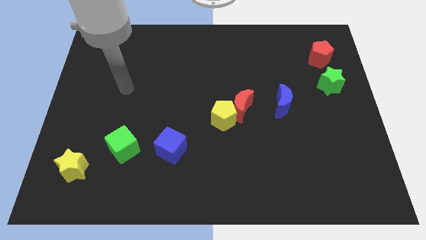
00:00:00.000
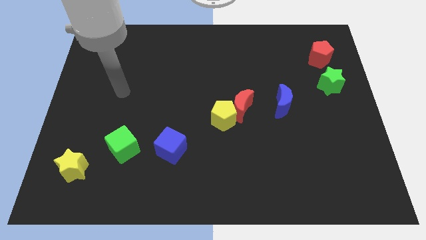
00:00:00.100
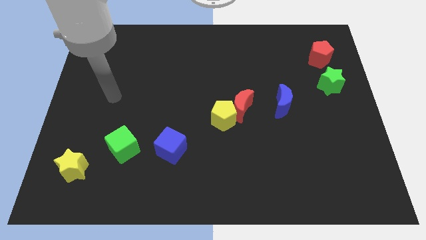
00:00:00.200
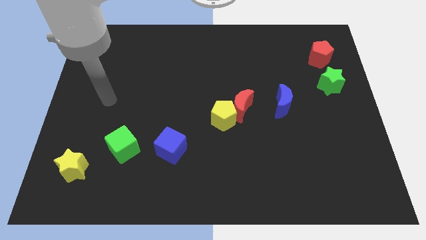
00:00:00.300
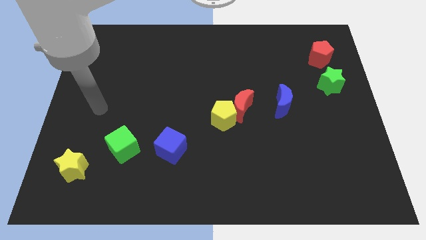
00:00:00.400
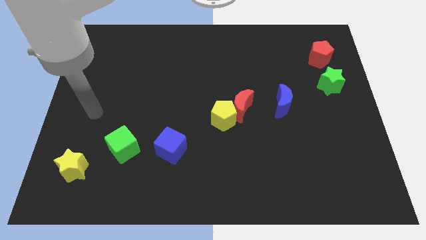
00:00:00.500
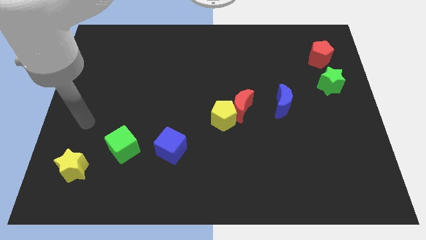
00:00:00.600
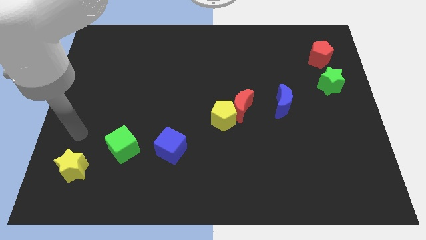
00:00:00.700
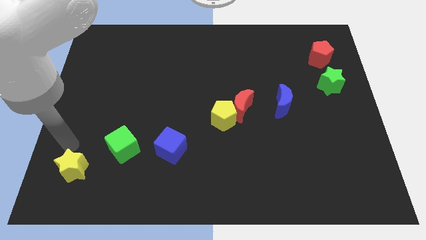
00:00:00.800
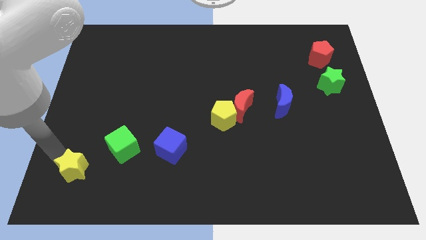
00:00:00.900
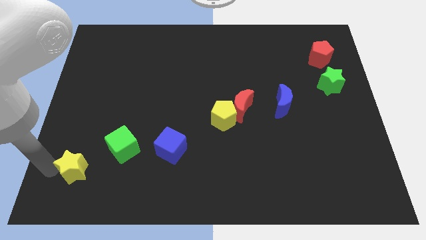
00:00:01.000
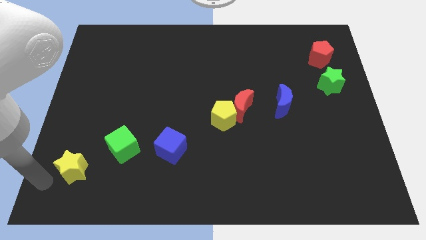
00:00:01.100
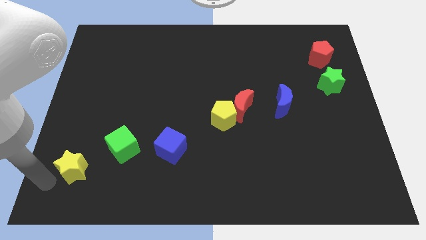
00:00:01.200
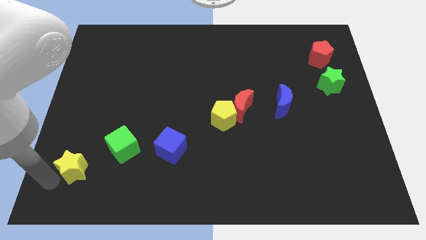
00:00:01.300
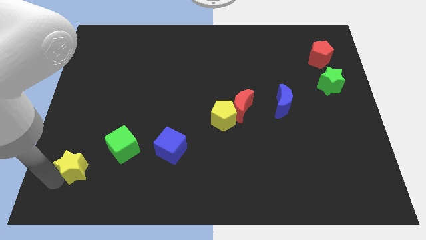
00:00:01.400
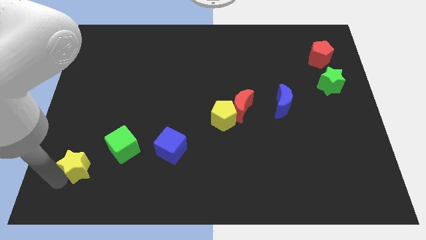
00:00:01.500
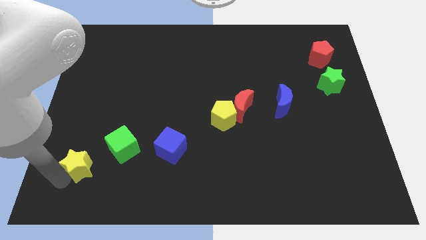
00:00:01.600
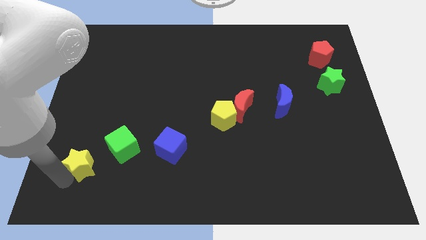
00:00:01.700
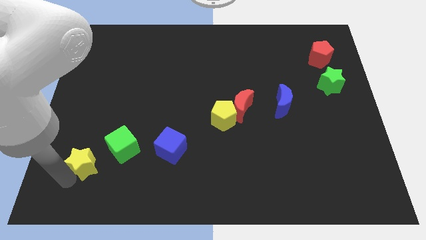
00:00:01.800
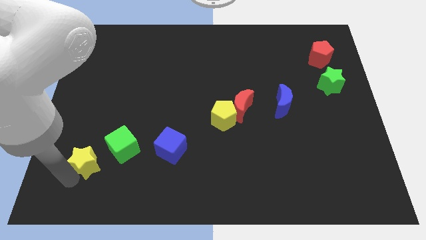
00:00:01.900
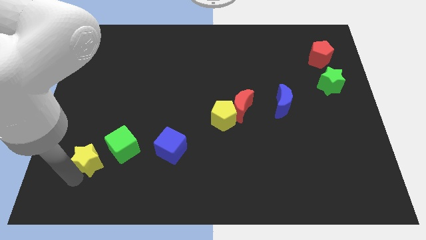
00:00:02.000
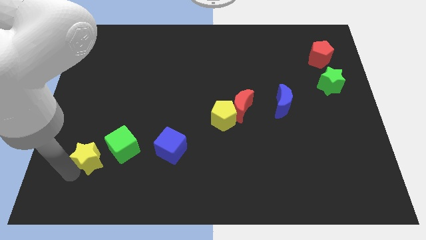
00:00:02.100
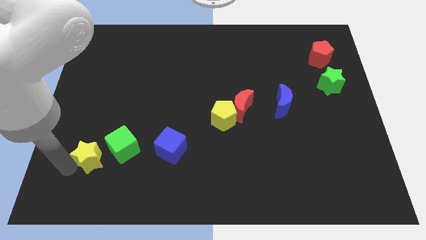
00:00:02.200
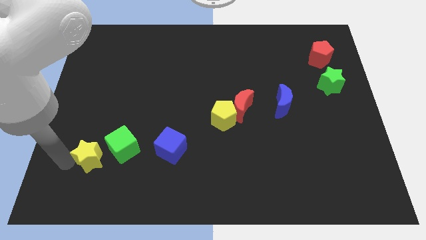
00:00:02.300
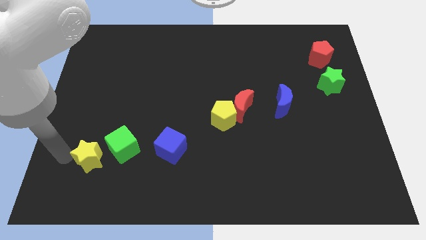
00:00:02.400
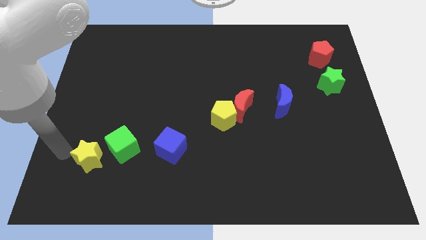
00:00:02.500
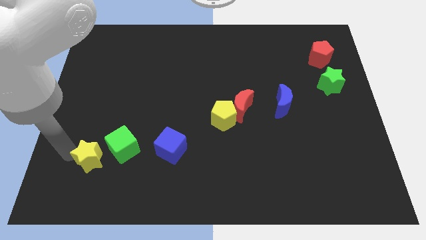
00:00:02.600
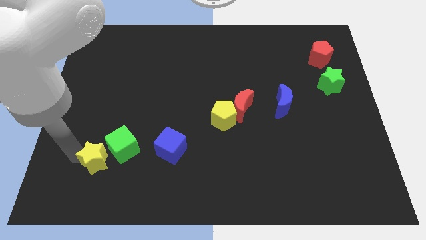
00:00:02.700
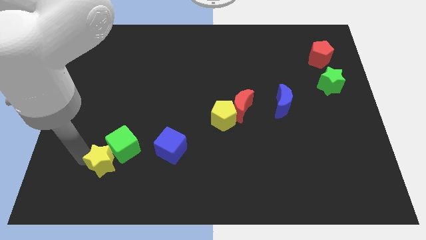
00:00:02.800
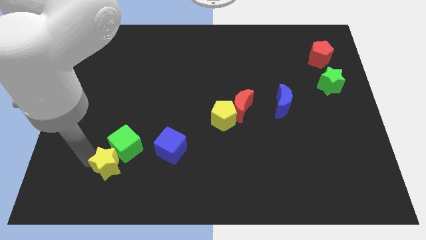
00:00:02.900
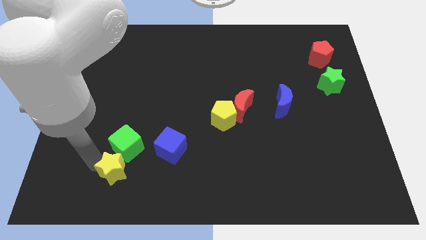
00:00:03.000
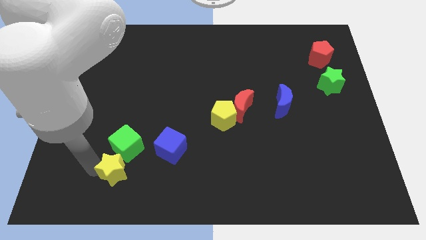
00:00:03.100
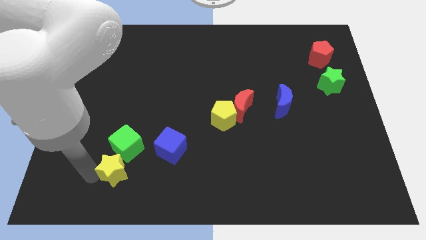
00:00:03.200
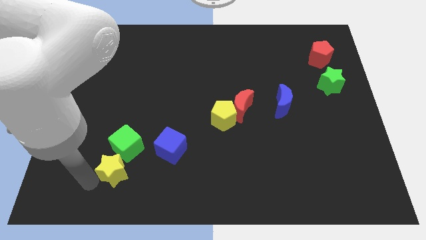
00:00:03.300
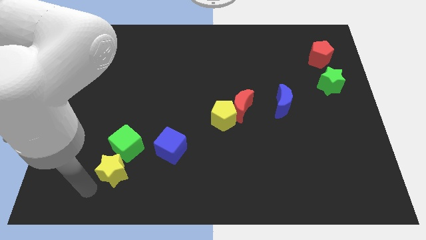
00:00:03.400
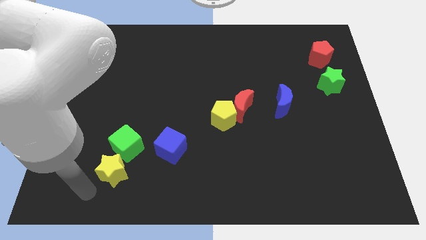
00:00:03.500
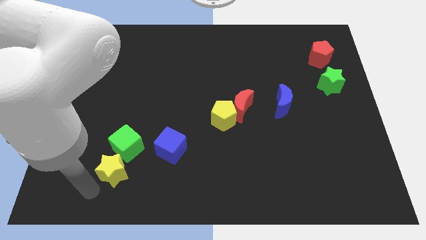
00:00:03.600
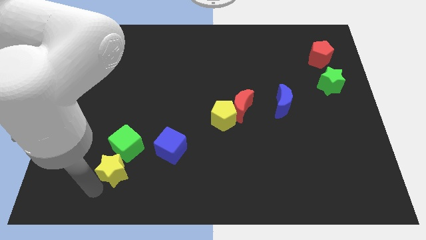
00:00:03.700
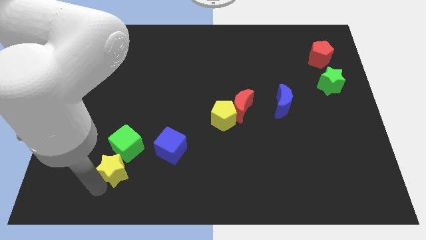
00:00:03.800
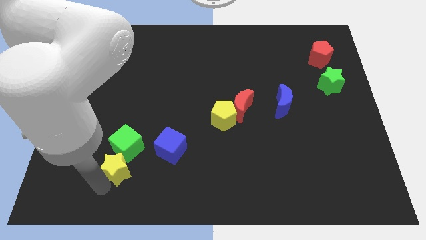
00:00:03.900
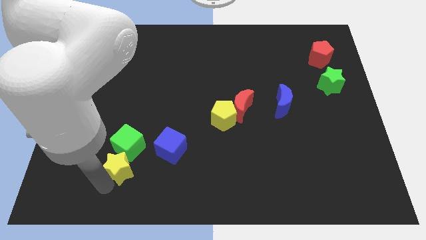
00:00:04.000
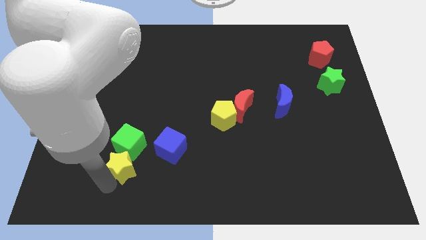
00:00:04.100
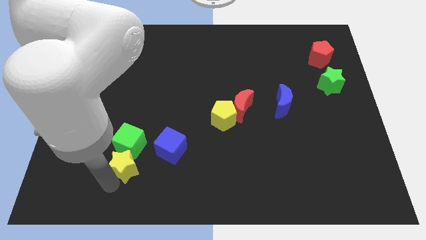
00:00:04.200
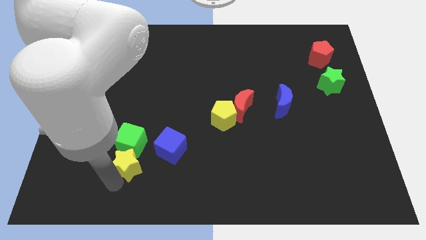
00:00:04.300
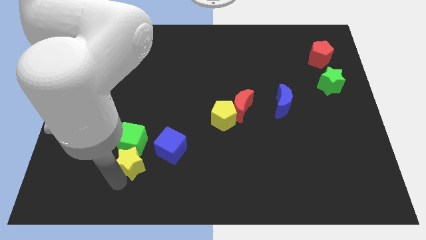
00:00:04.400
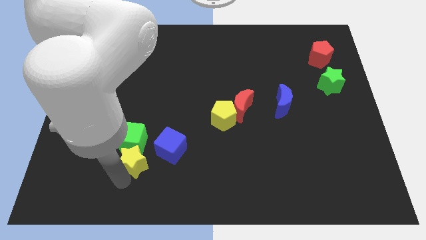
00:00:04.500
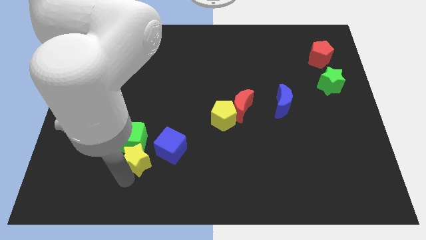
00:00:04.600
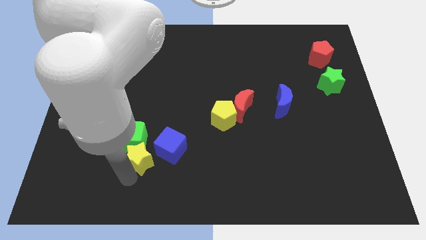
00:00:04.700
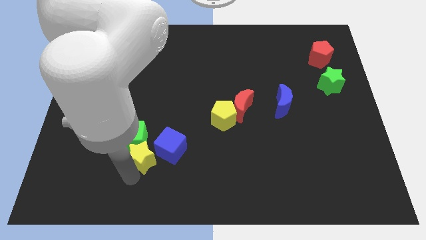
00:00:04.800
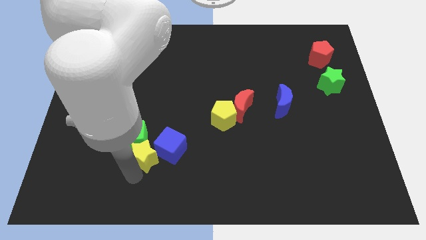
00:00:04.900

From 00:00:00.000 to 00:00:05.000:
push the yellow star to the blue cube

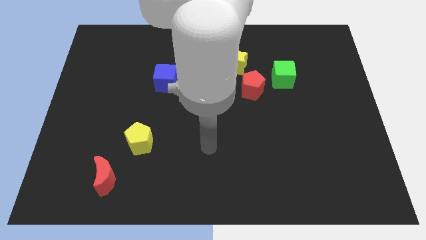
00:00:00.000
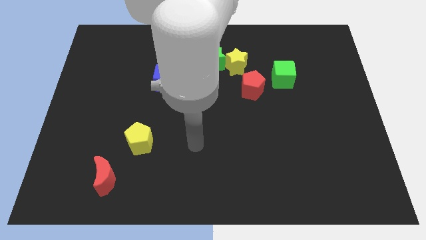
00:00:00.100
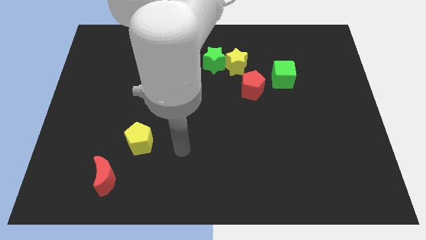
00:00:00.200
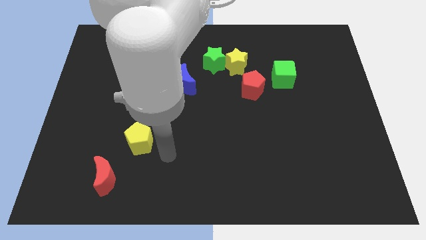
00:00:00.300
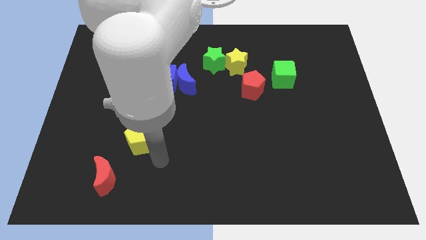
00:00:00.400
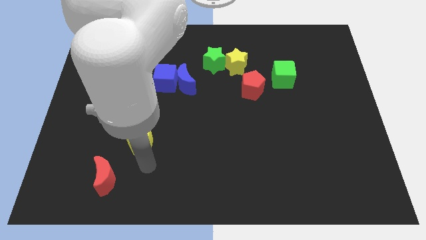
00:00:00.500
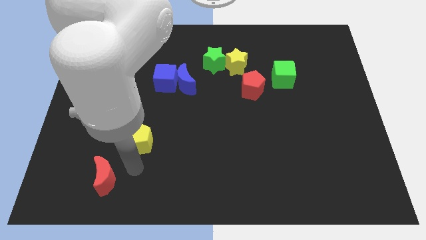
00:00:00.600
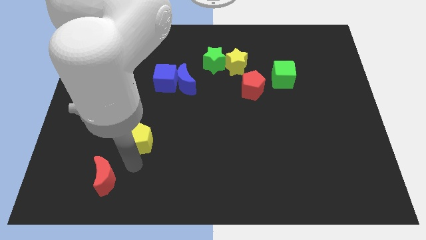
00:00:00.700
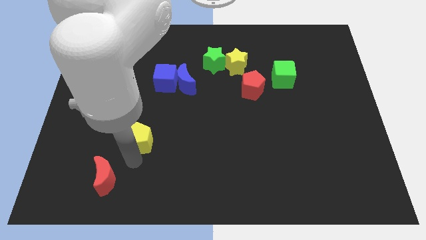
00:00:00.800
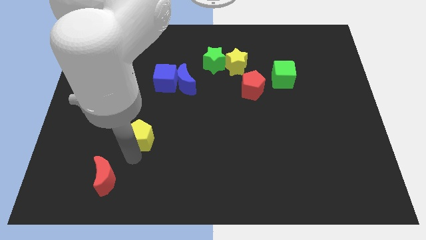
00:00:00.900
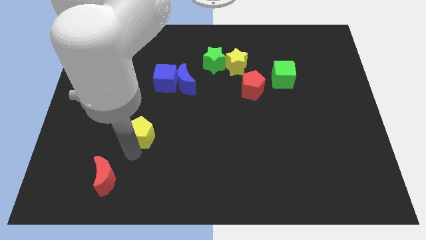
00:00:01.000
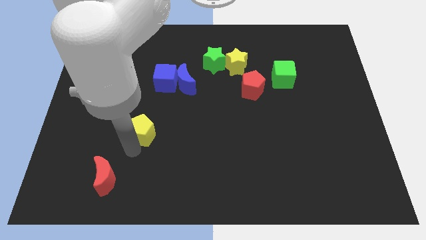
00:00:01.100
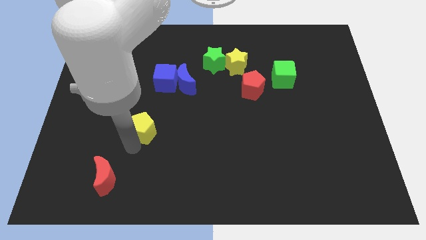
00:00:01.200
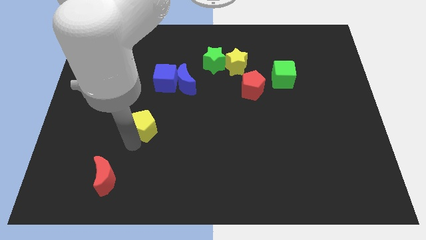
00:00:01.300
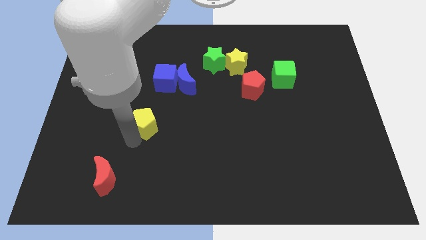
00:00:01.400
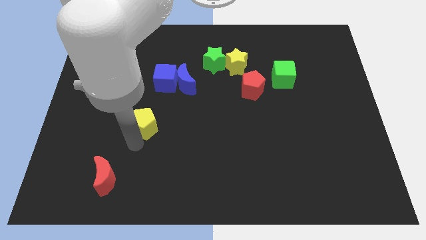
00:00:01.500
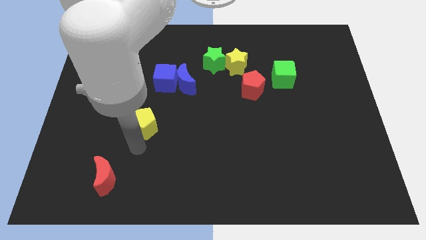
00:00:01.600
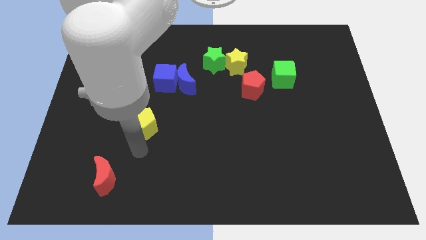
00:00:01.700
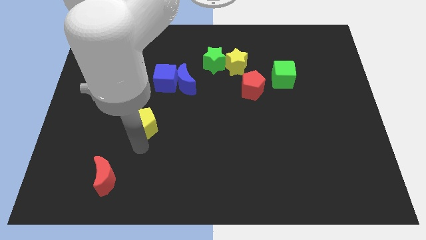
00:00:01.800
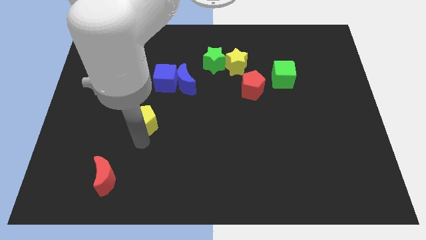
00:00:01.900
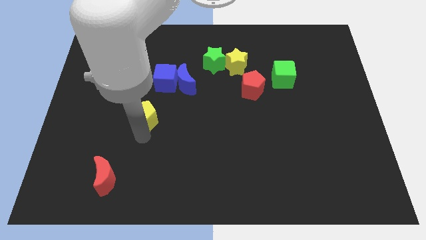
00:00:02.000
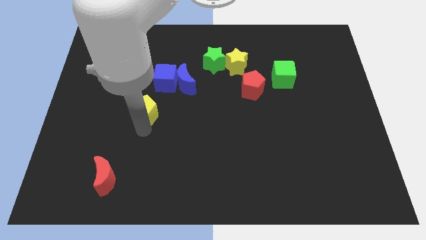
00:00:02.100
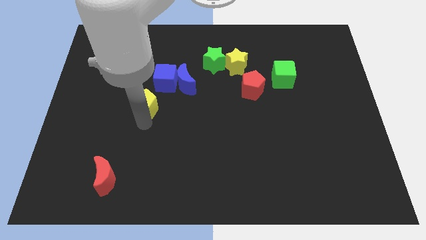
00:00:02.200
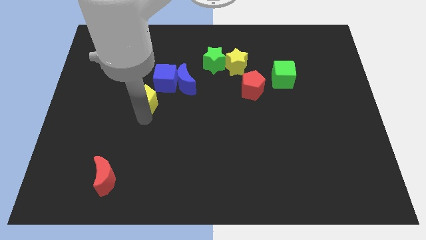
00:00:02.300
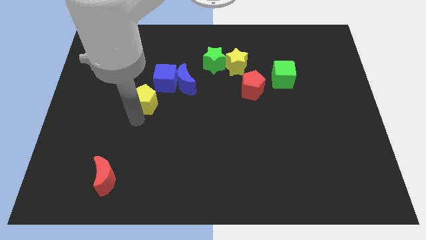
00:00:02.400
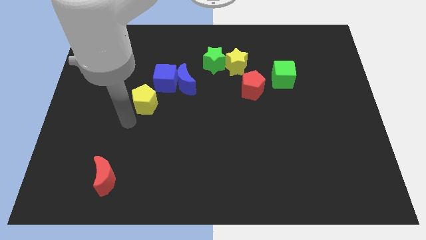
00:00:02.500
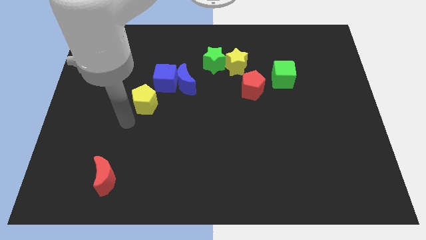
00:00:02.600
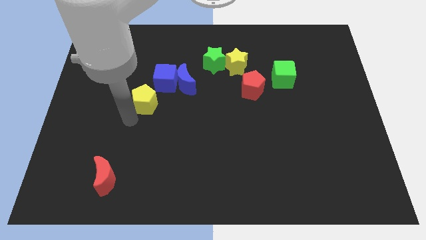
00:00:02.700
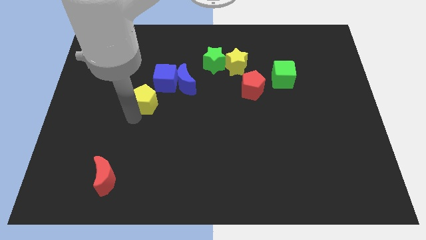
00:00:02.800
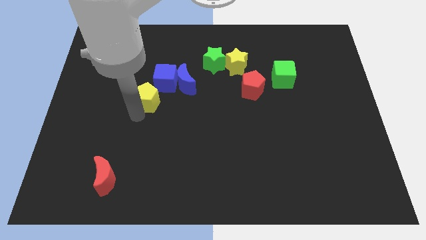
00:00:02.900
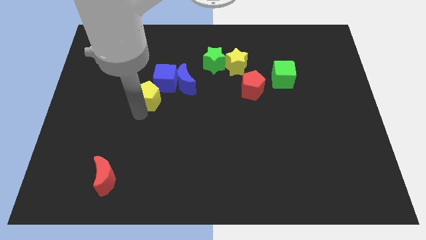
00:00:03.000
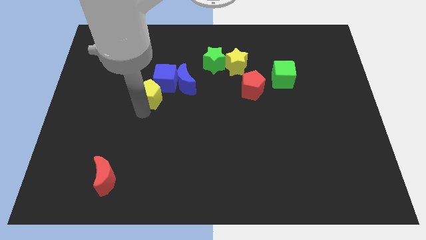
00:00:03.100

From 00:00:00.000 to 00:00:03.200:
move the yellow pentagon next to the blue cube
